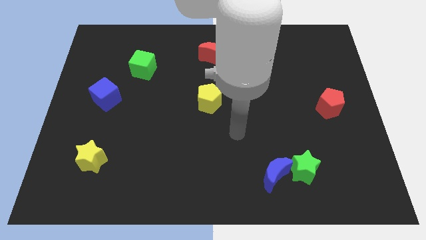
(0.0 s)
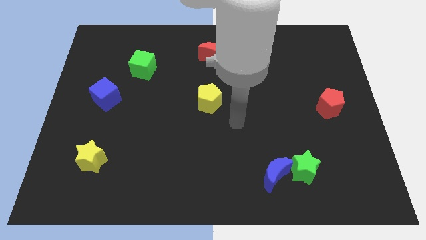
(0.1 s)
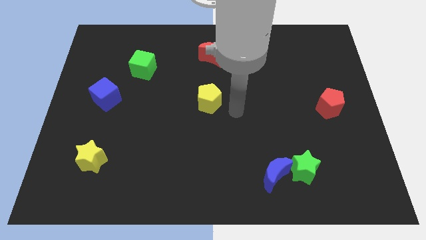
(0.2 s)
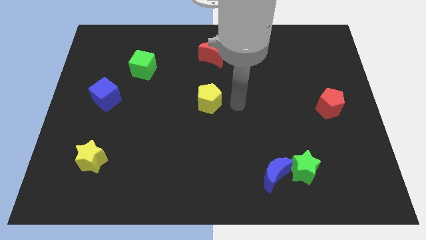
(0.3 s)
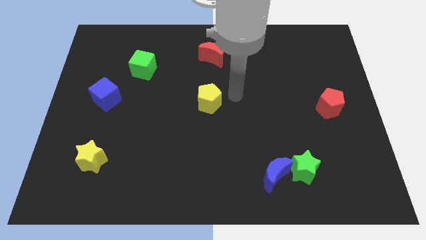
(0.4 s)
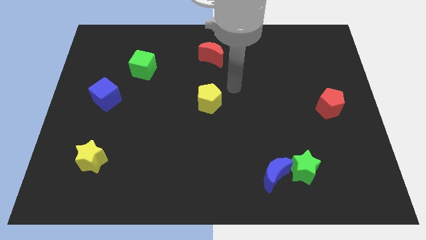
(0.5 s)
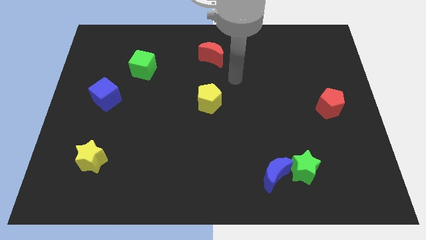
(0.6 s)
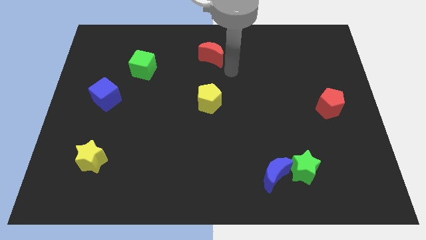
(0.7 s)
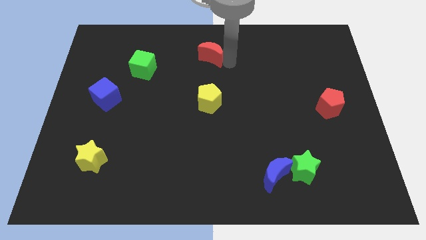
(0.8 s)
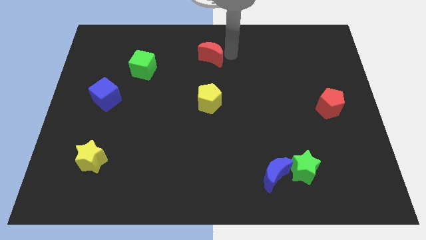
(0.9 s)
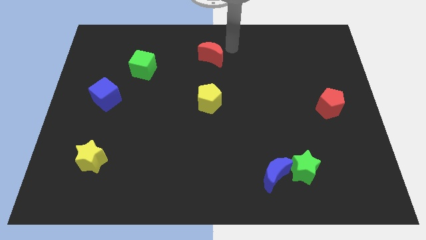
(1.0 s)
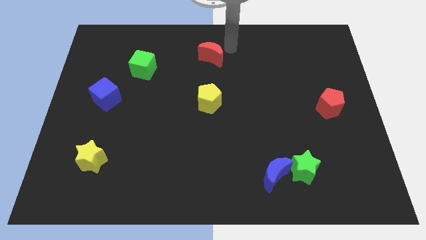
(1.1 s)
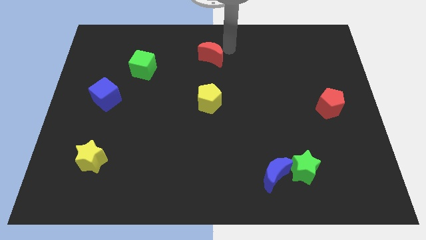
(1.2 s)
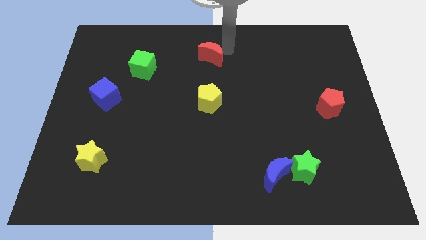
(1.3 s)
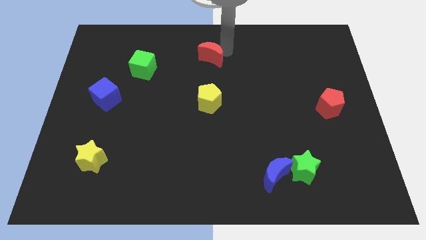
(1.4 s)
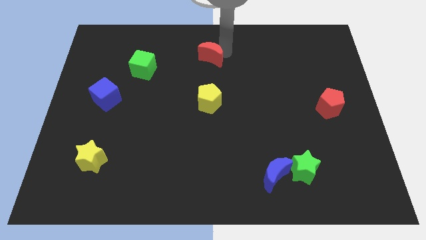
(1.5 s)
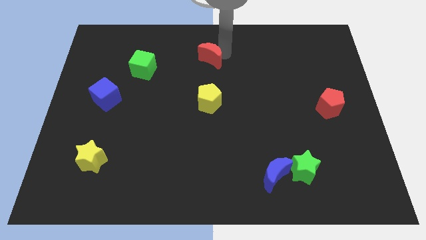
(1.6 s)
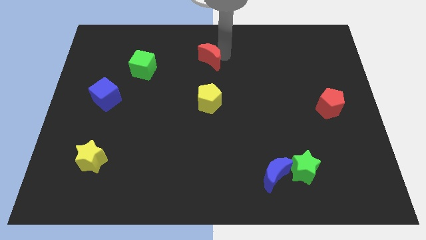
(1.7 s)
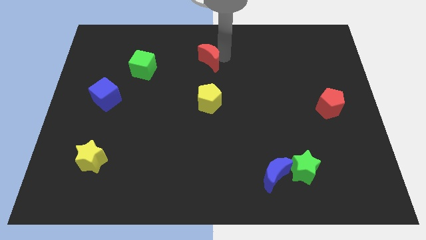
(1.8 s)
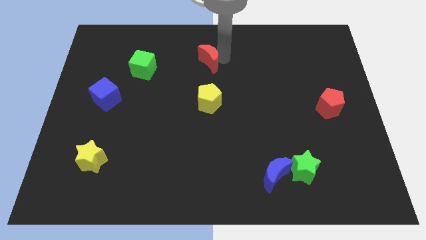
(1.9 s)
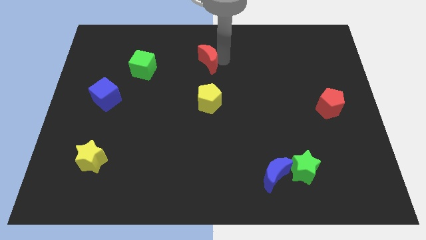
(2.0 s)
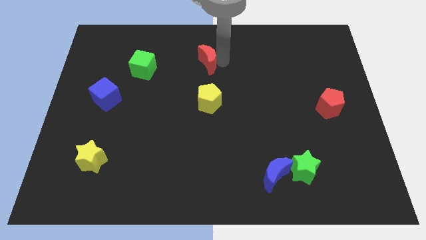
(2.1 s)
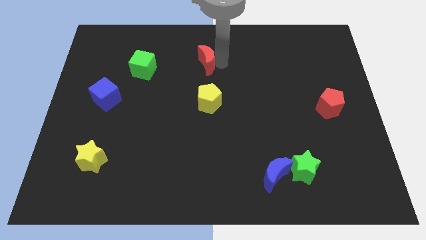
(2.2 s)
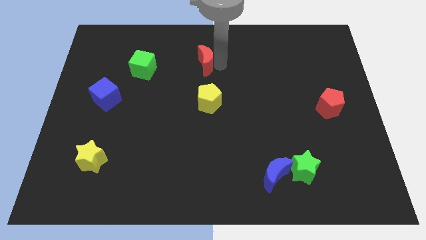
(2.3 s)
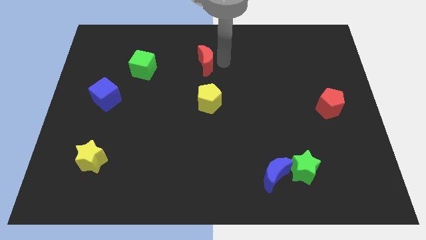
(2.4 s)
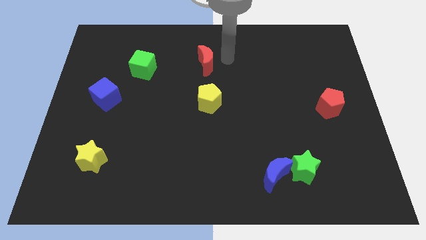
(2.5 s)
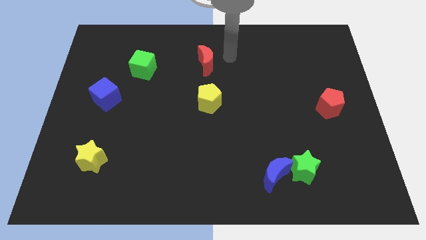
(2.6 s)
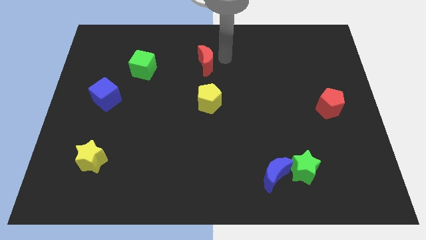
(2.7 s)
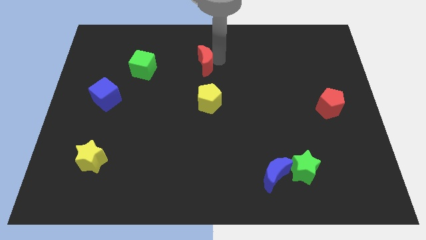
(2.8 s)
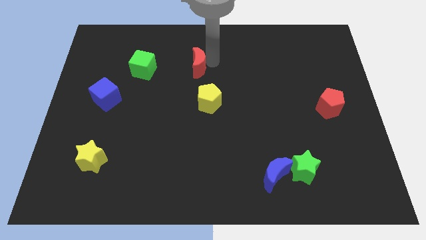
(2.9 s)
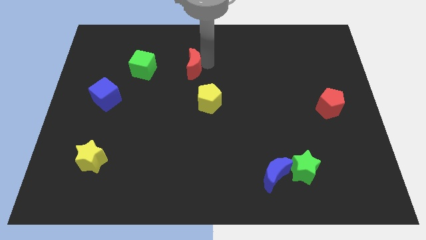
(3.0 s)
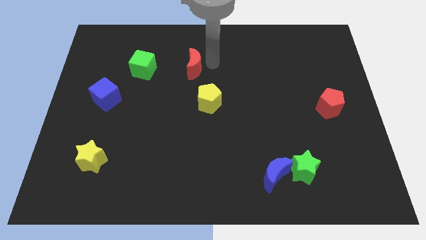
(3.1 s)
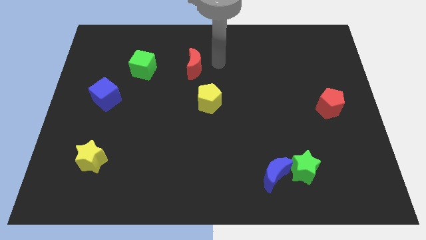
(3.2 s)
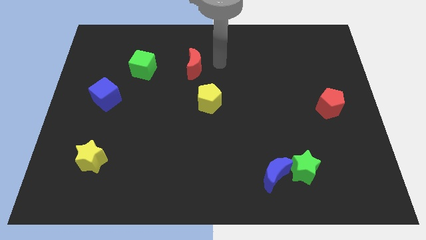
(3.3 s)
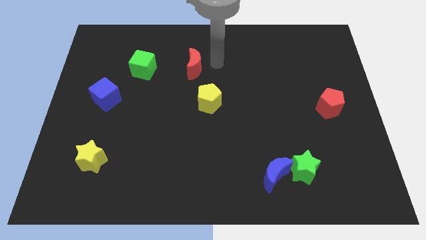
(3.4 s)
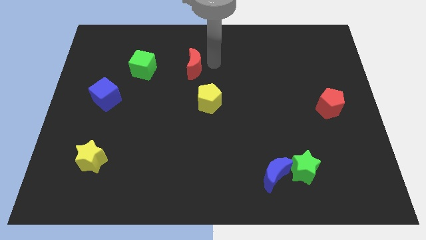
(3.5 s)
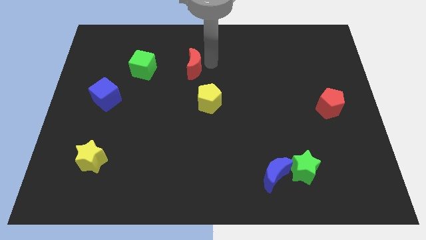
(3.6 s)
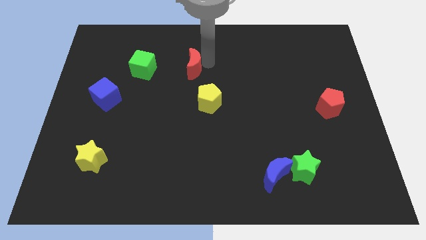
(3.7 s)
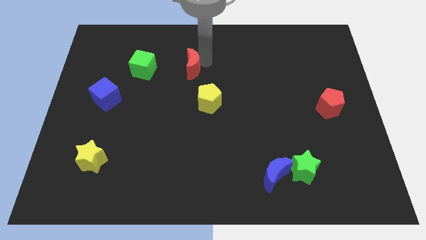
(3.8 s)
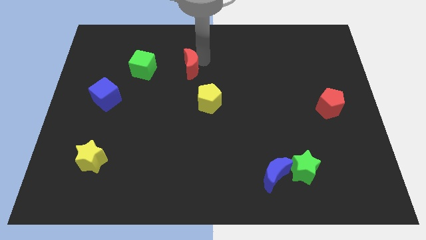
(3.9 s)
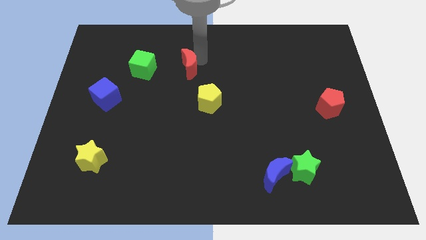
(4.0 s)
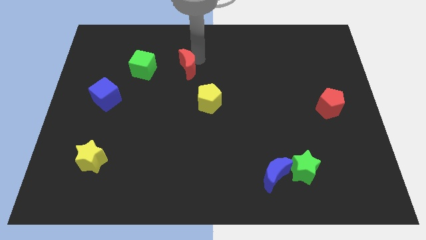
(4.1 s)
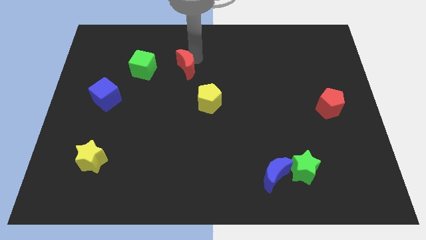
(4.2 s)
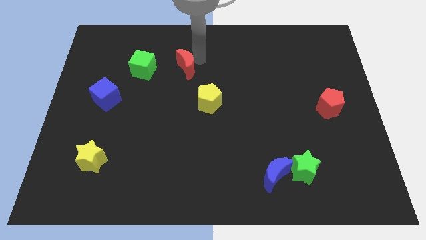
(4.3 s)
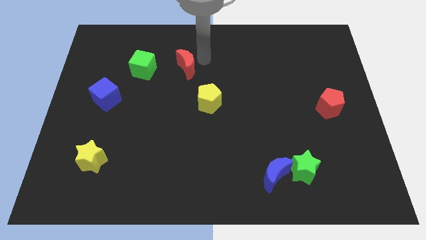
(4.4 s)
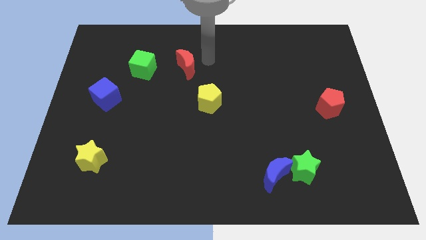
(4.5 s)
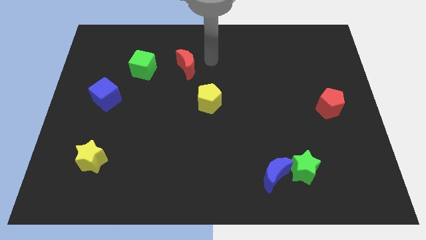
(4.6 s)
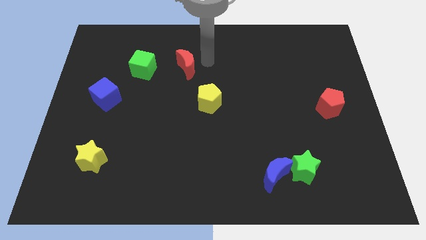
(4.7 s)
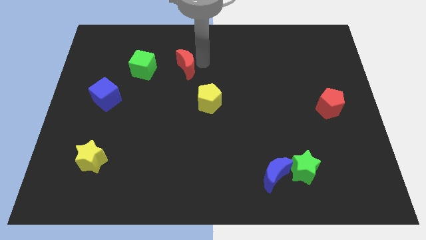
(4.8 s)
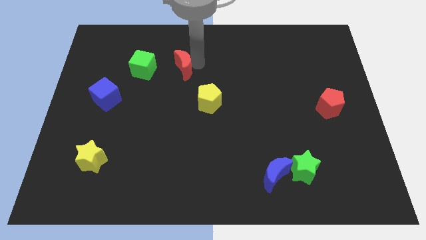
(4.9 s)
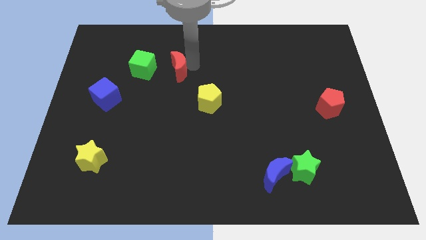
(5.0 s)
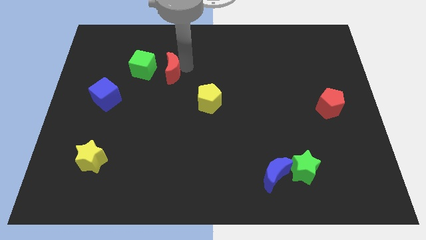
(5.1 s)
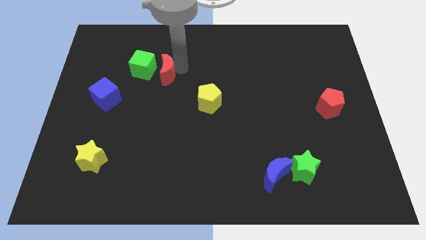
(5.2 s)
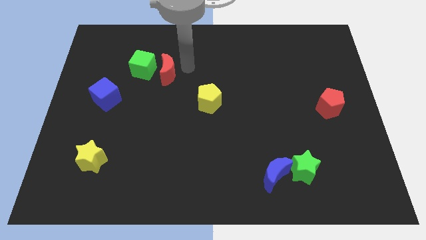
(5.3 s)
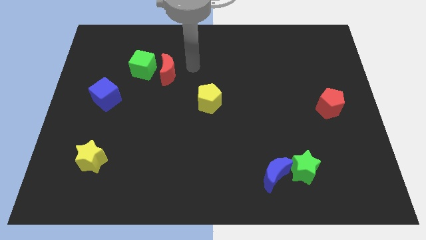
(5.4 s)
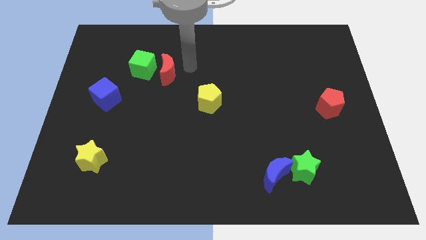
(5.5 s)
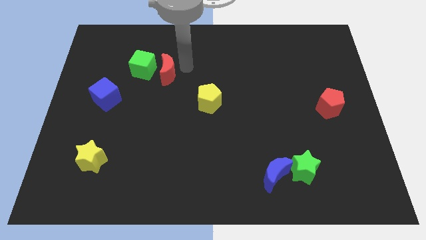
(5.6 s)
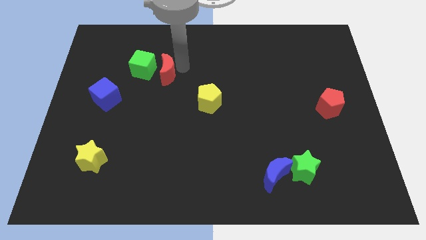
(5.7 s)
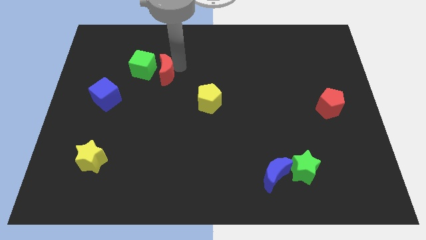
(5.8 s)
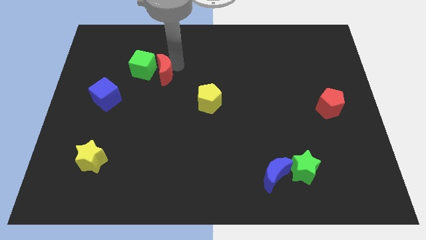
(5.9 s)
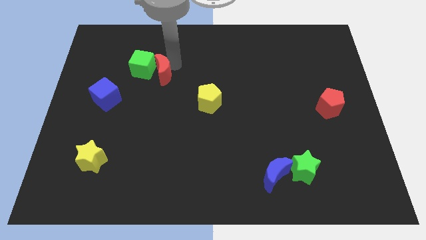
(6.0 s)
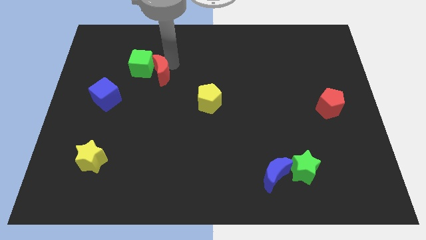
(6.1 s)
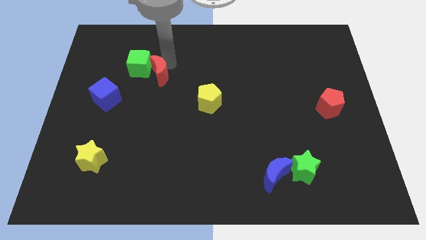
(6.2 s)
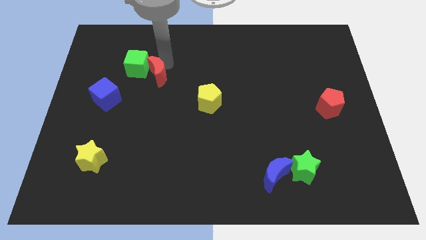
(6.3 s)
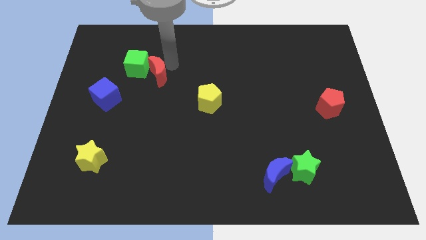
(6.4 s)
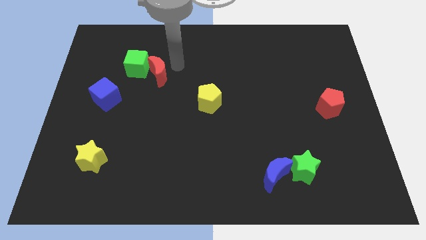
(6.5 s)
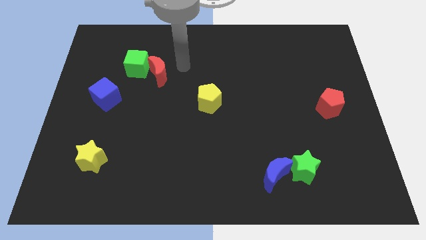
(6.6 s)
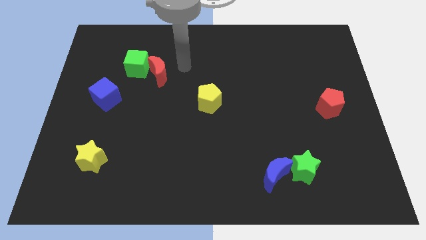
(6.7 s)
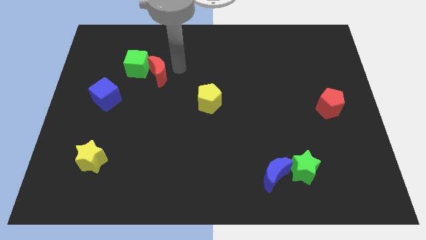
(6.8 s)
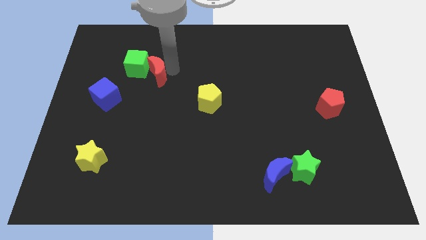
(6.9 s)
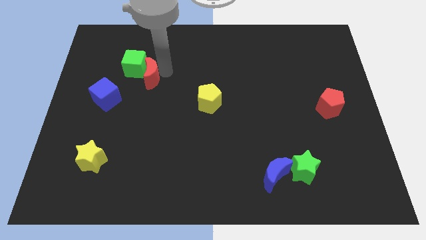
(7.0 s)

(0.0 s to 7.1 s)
push the red moon diagonally up and to the right of the blue cube

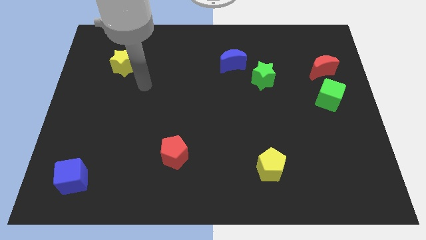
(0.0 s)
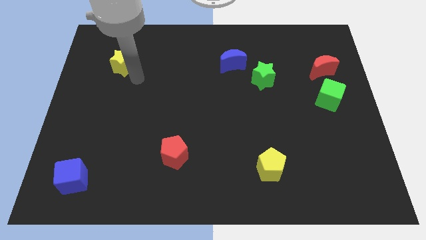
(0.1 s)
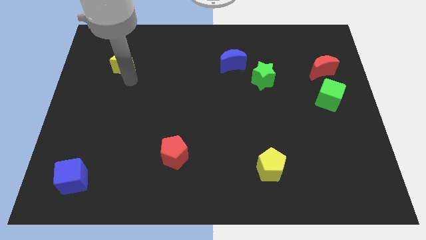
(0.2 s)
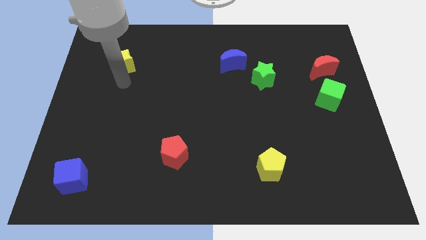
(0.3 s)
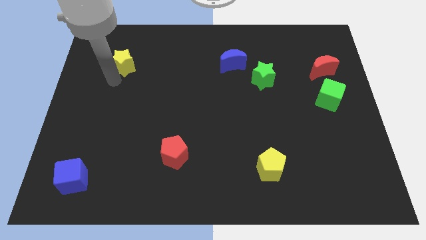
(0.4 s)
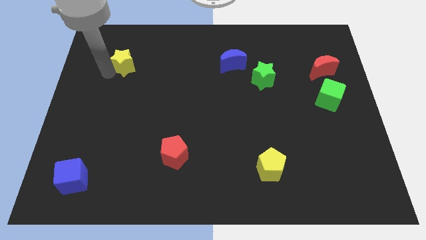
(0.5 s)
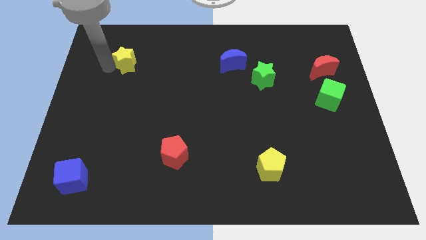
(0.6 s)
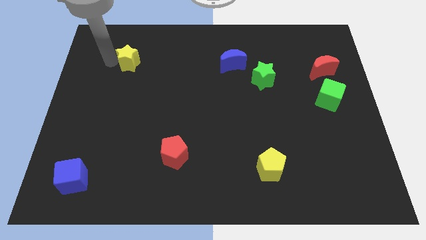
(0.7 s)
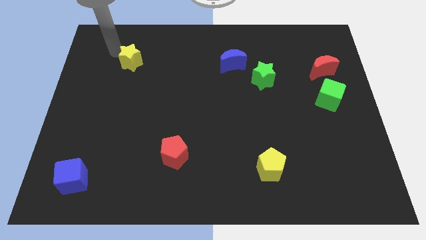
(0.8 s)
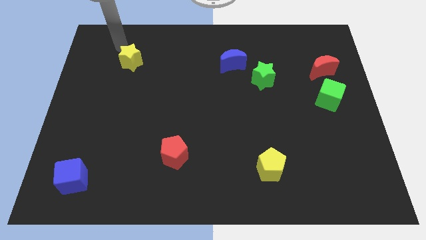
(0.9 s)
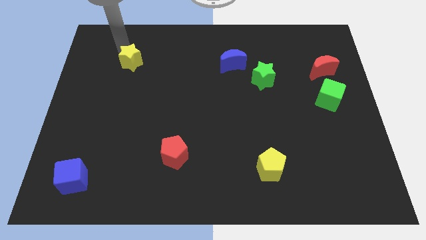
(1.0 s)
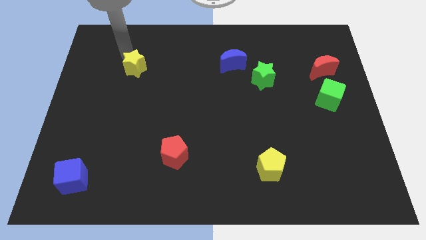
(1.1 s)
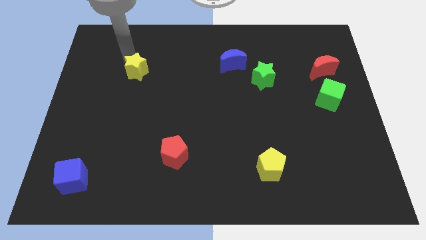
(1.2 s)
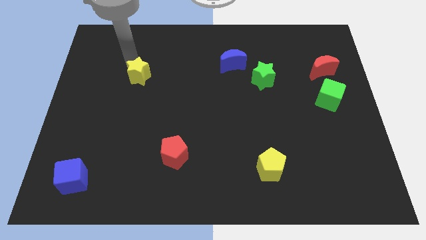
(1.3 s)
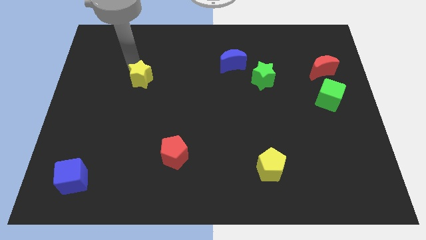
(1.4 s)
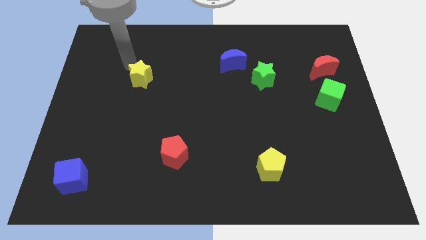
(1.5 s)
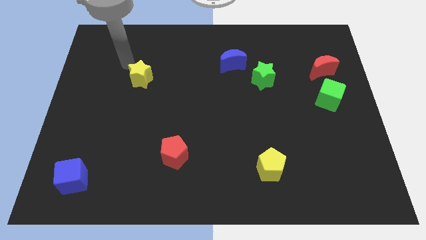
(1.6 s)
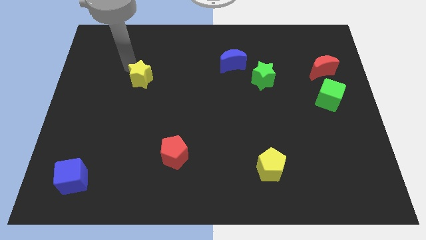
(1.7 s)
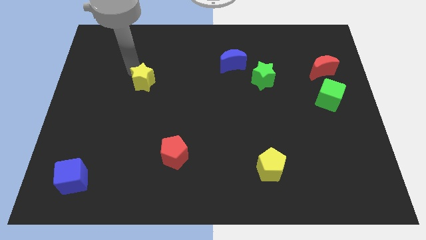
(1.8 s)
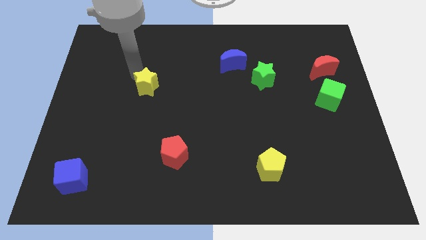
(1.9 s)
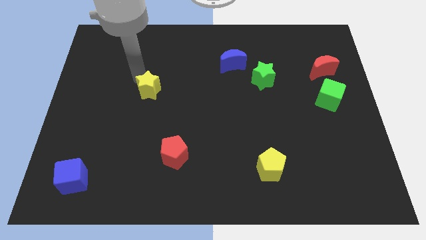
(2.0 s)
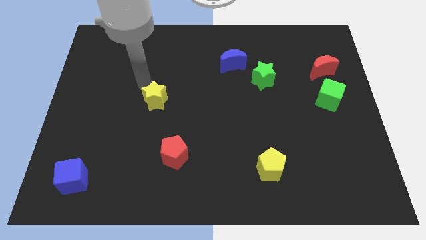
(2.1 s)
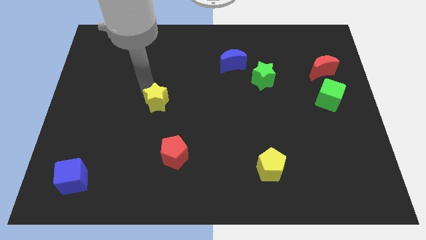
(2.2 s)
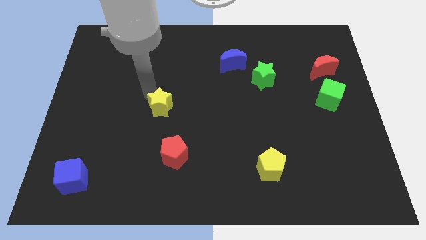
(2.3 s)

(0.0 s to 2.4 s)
move the yellow star to the top of the red pentagon
